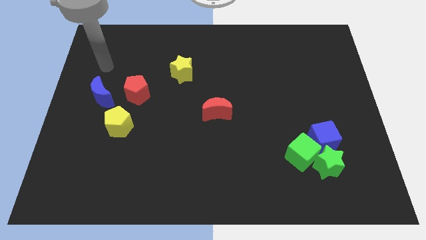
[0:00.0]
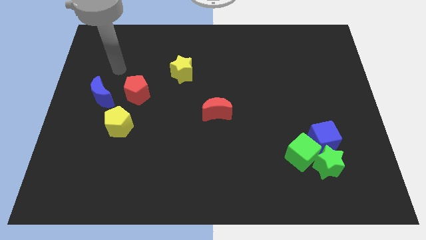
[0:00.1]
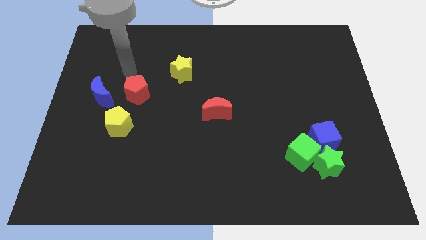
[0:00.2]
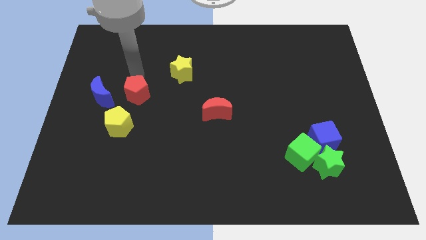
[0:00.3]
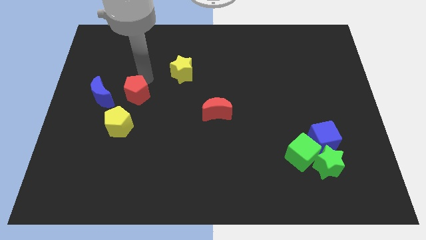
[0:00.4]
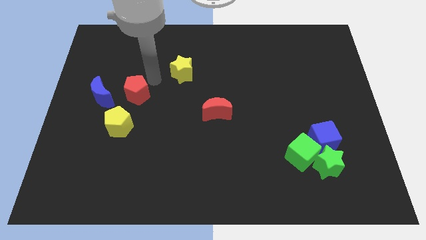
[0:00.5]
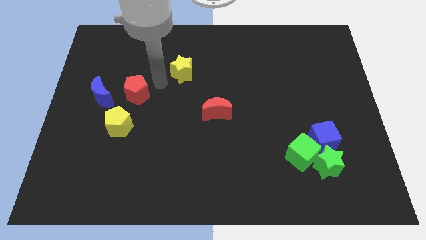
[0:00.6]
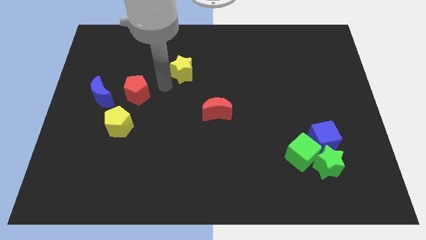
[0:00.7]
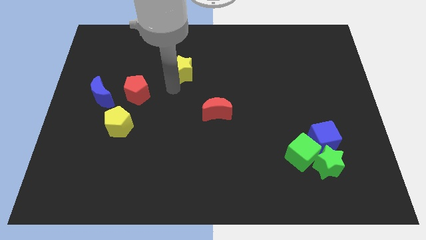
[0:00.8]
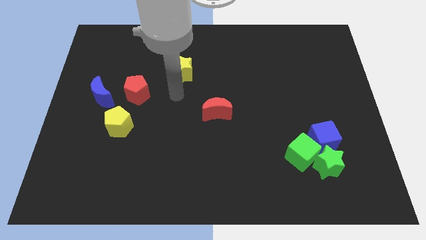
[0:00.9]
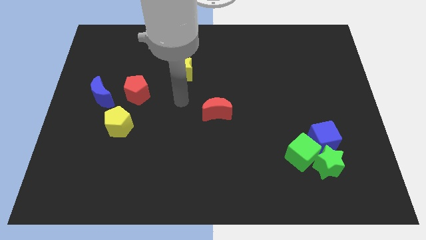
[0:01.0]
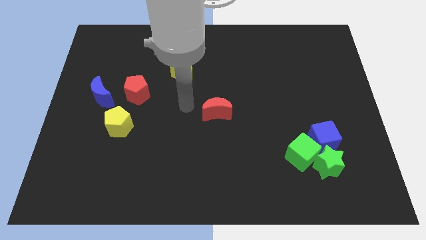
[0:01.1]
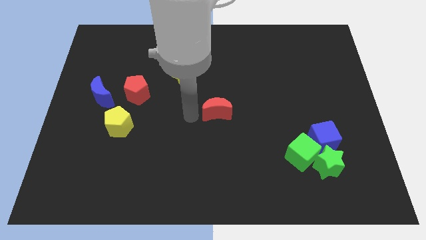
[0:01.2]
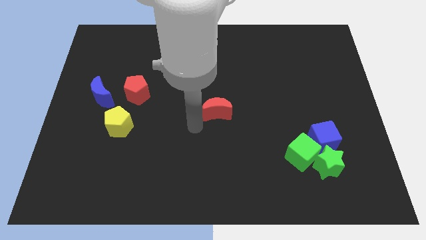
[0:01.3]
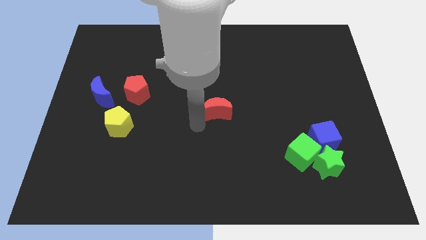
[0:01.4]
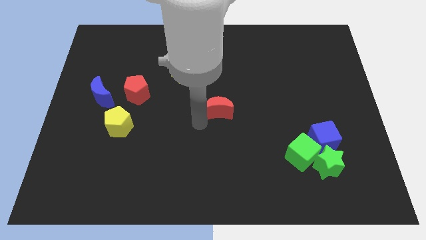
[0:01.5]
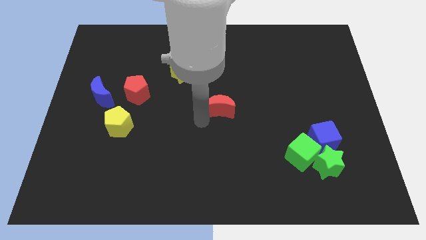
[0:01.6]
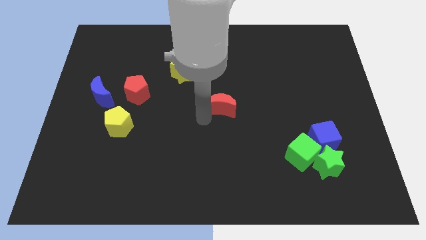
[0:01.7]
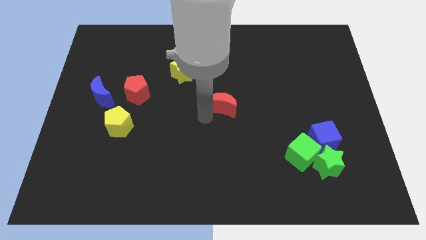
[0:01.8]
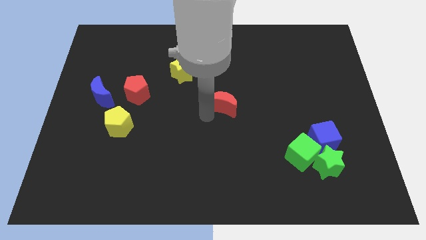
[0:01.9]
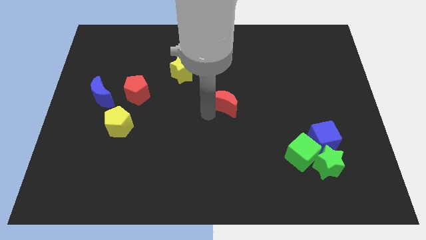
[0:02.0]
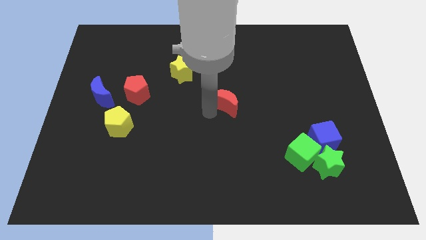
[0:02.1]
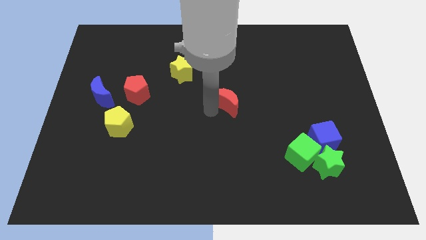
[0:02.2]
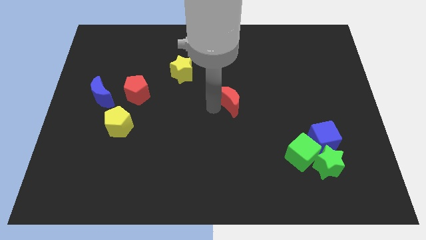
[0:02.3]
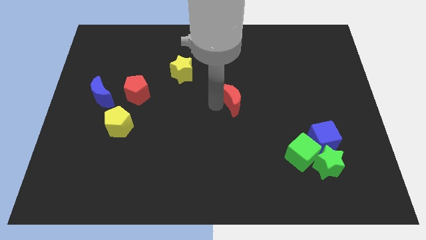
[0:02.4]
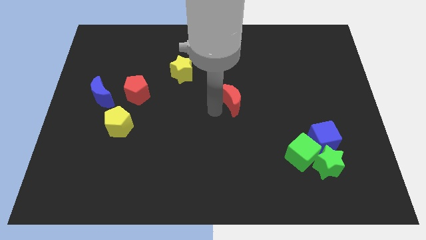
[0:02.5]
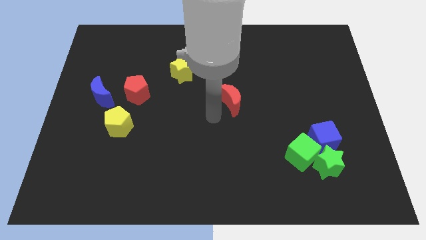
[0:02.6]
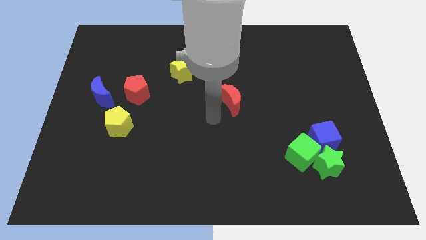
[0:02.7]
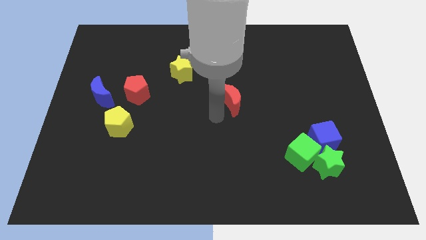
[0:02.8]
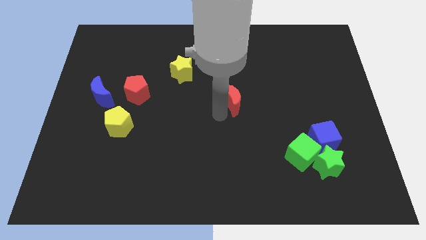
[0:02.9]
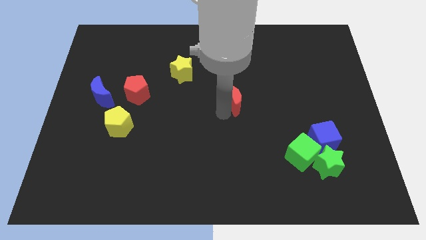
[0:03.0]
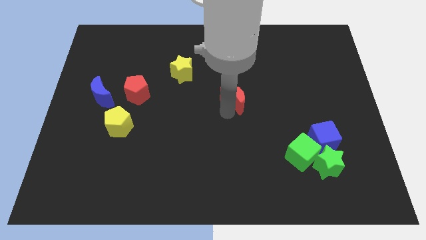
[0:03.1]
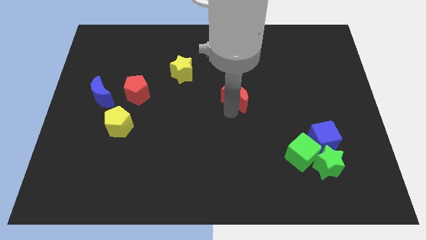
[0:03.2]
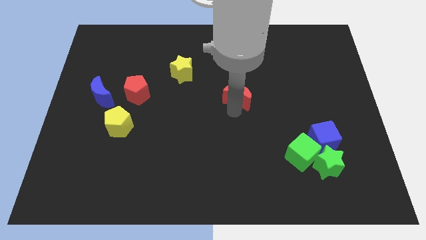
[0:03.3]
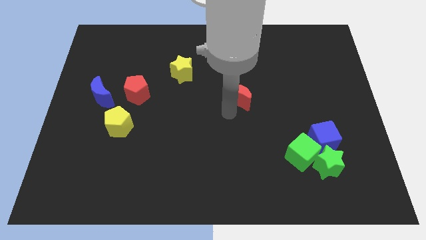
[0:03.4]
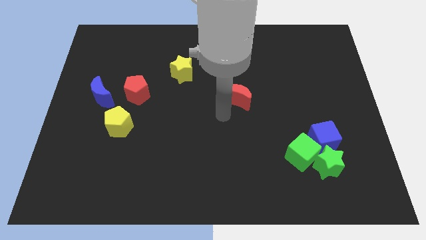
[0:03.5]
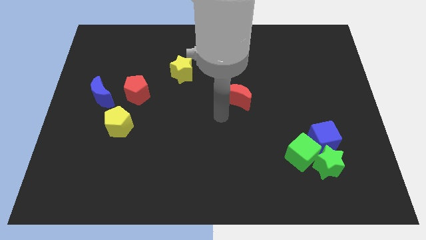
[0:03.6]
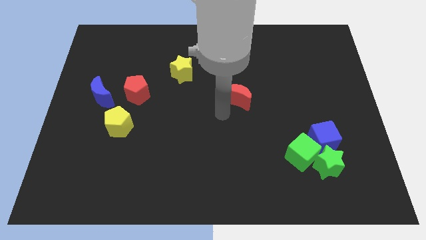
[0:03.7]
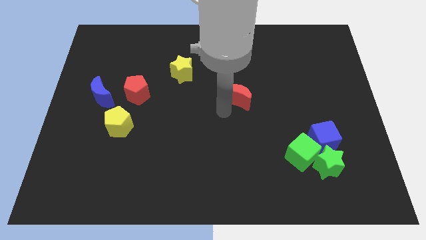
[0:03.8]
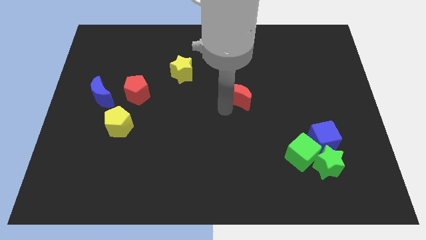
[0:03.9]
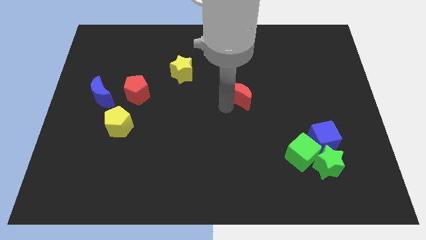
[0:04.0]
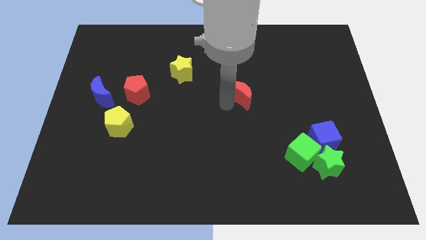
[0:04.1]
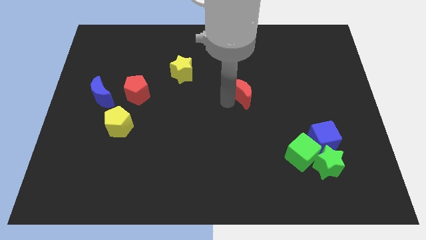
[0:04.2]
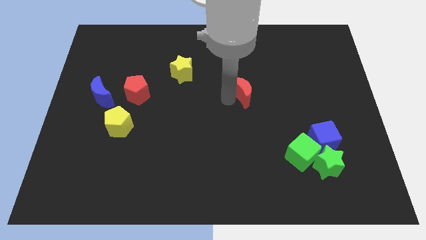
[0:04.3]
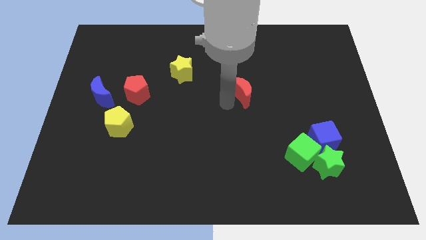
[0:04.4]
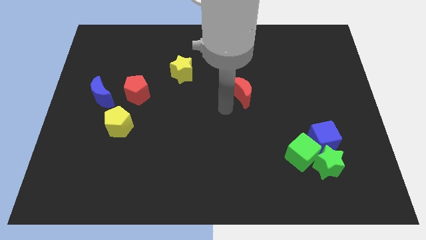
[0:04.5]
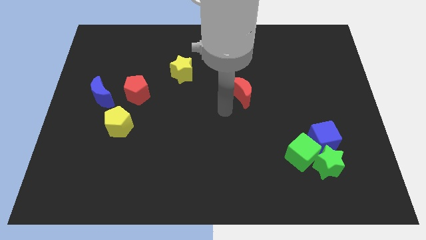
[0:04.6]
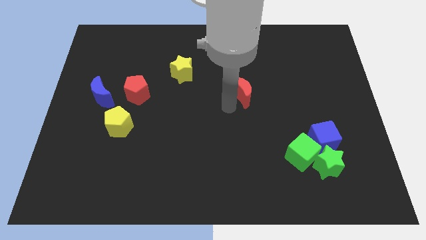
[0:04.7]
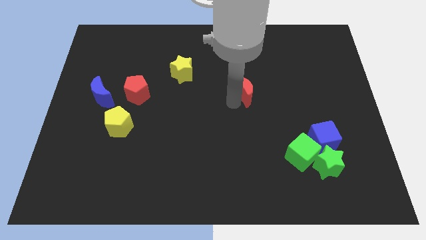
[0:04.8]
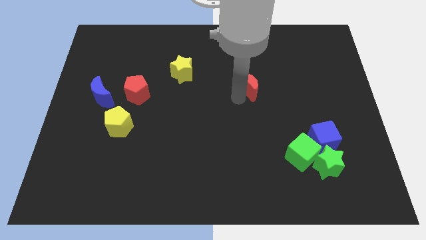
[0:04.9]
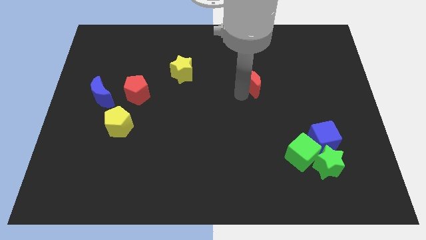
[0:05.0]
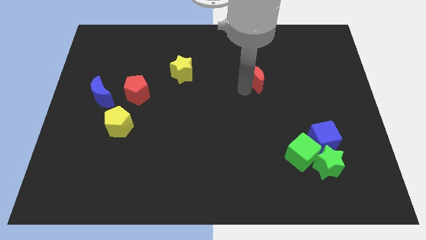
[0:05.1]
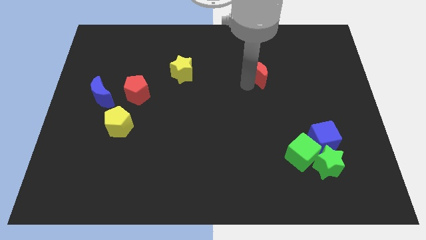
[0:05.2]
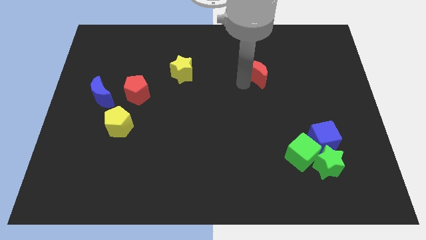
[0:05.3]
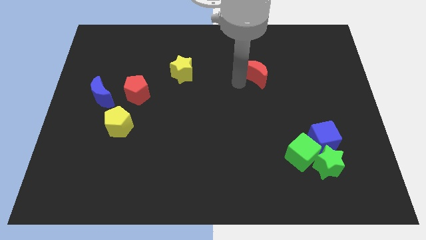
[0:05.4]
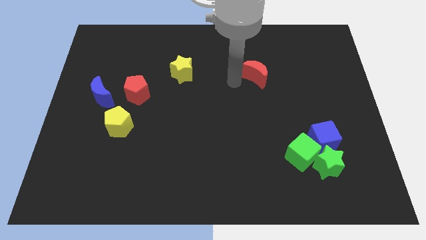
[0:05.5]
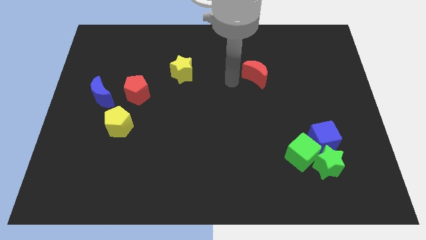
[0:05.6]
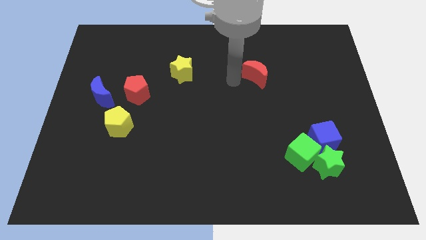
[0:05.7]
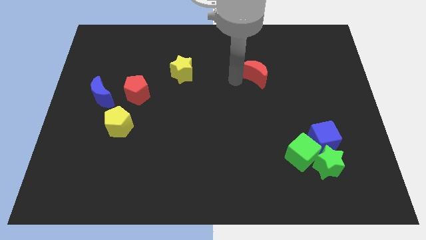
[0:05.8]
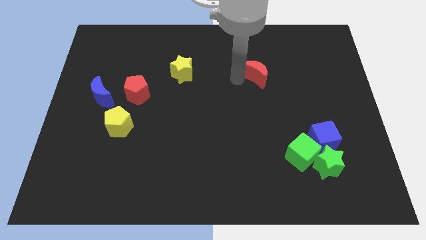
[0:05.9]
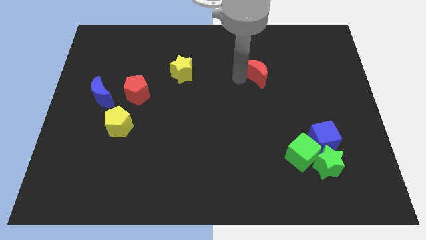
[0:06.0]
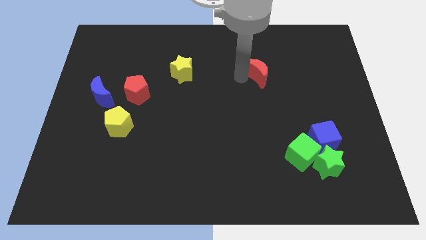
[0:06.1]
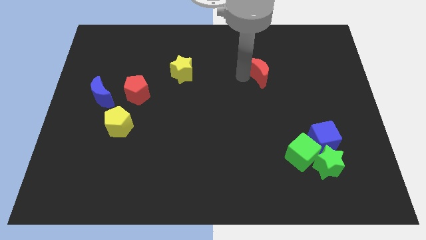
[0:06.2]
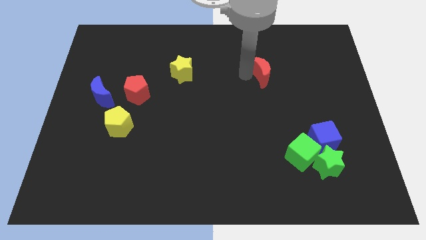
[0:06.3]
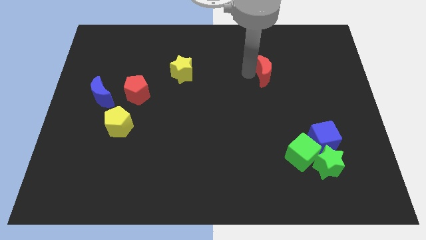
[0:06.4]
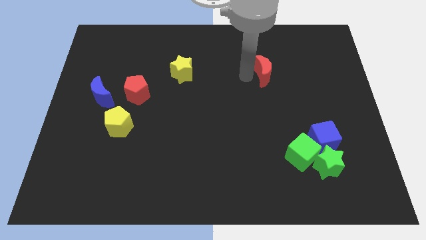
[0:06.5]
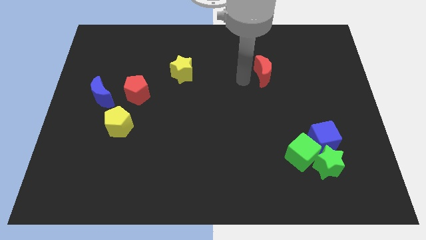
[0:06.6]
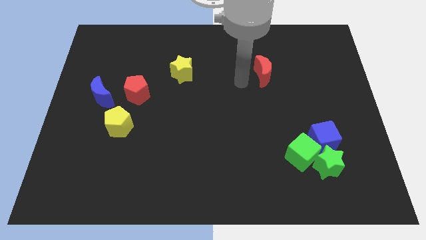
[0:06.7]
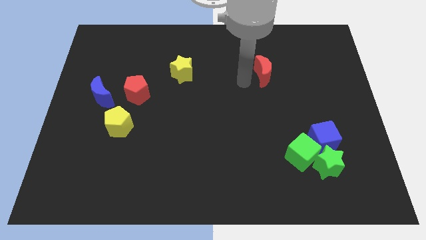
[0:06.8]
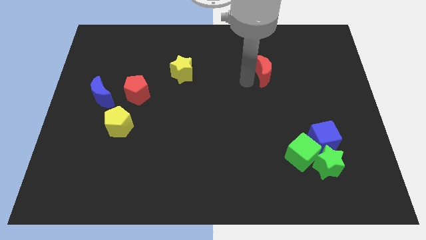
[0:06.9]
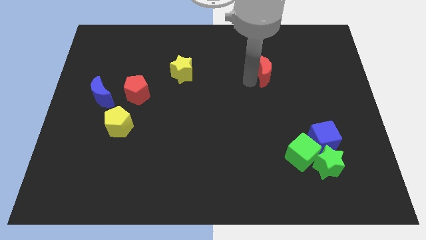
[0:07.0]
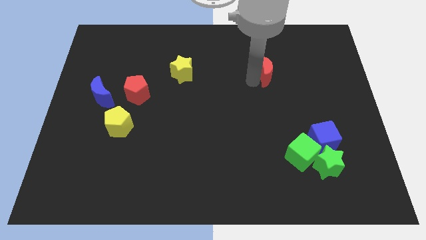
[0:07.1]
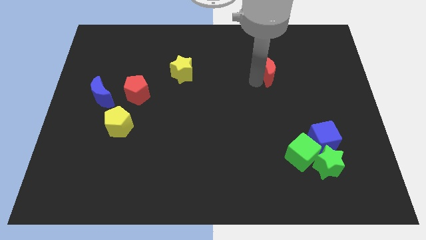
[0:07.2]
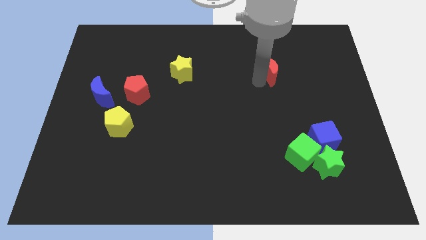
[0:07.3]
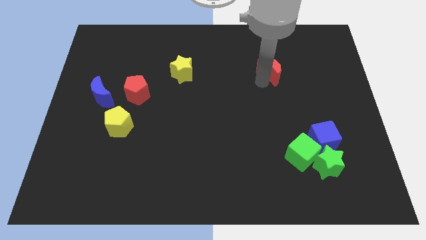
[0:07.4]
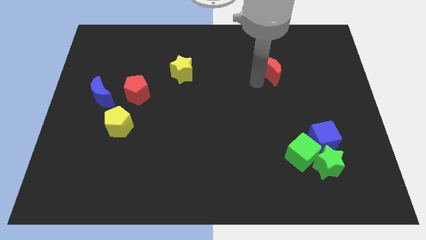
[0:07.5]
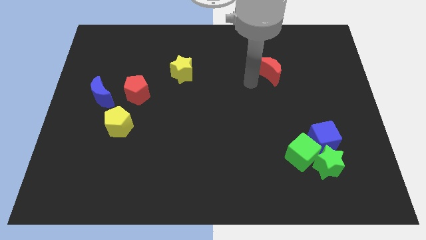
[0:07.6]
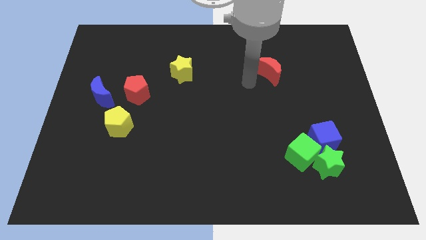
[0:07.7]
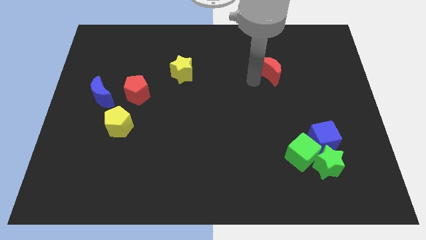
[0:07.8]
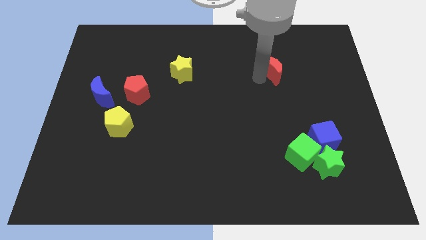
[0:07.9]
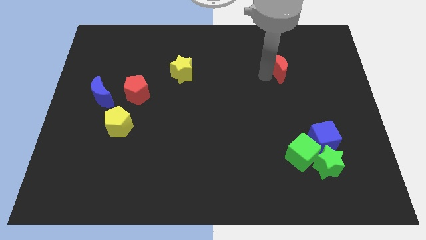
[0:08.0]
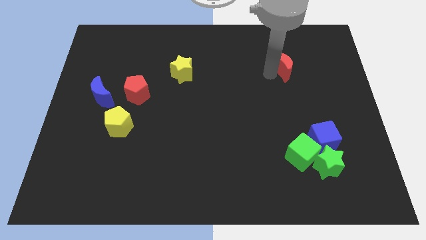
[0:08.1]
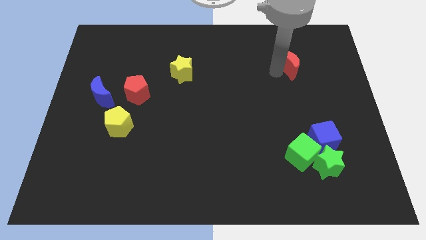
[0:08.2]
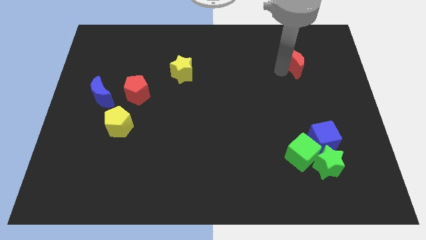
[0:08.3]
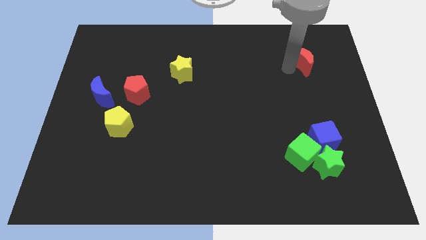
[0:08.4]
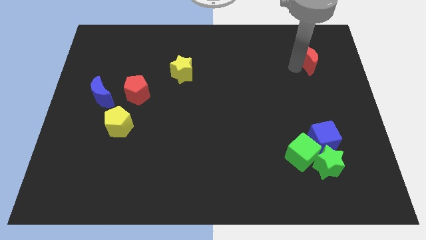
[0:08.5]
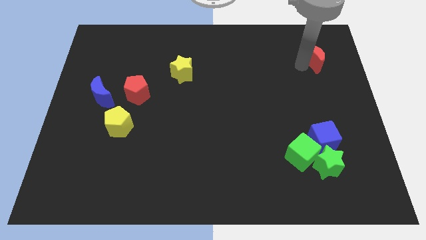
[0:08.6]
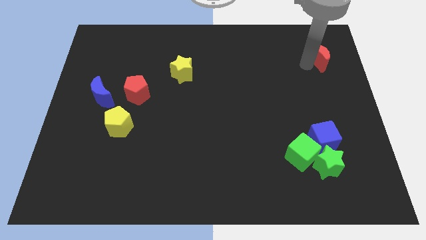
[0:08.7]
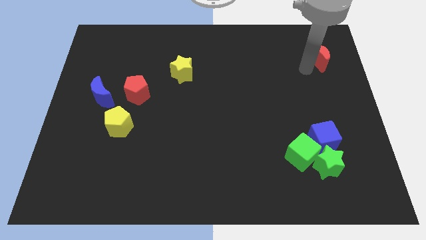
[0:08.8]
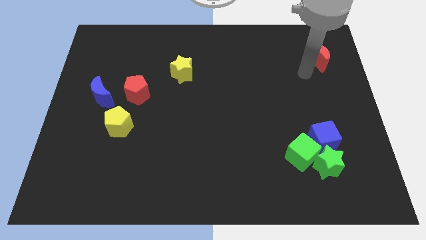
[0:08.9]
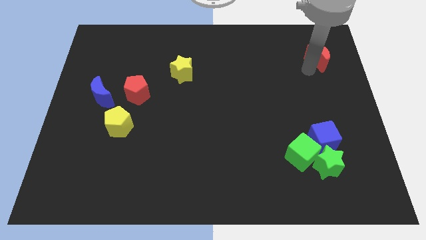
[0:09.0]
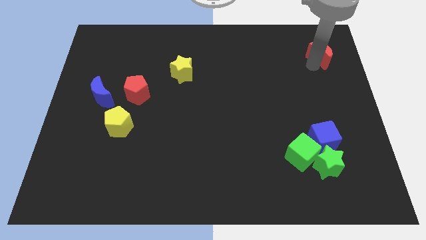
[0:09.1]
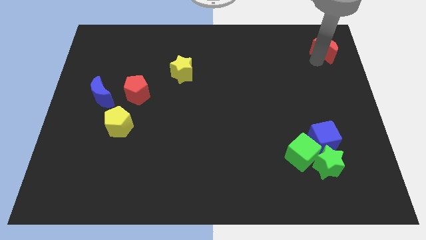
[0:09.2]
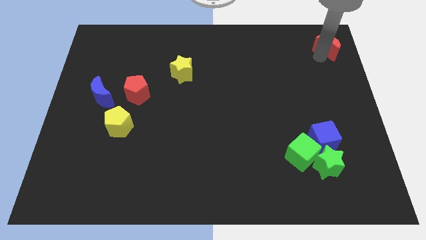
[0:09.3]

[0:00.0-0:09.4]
put the red moon to the top right of the board
